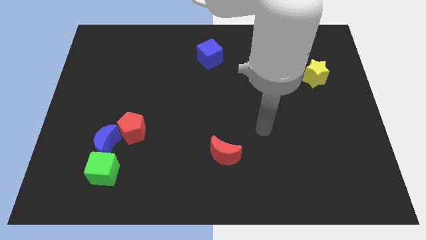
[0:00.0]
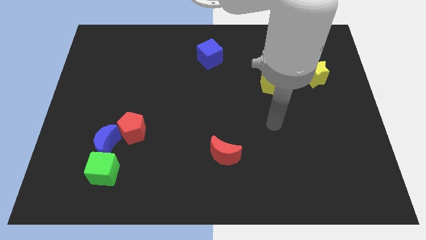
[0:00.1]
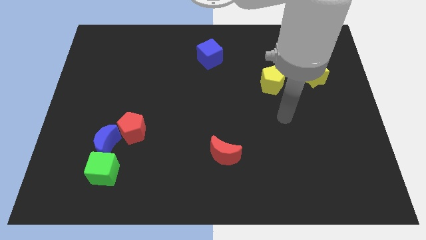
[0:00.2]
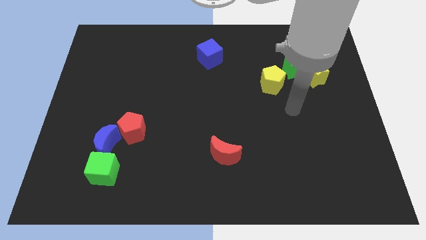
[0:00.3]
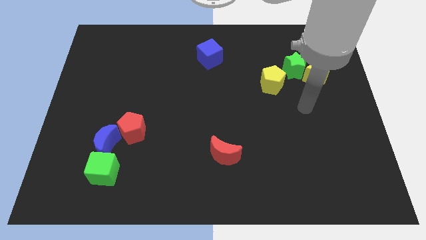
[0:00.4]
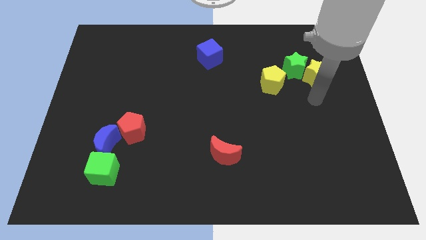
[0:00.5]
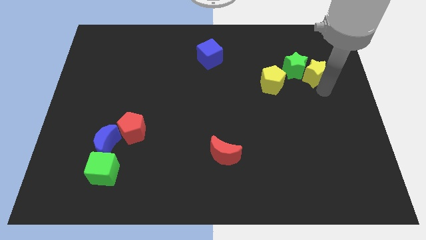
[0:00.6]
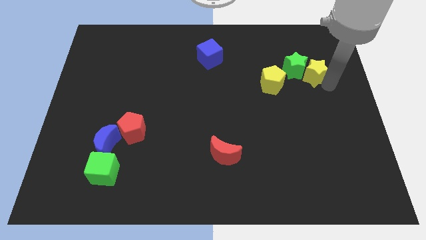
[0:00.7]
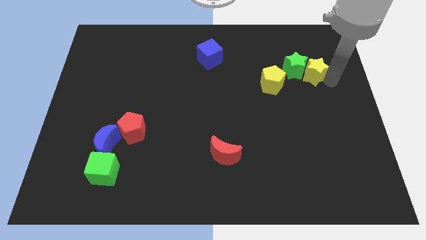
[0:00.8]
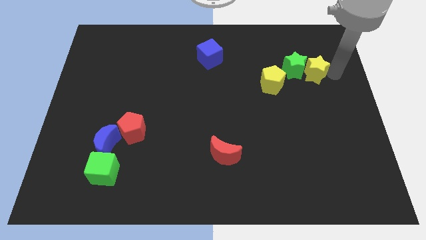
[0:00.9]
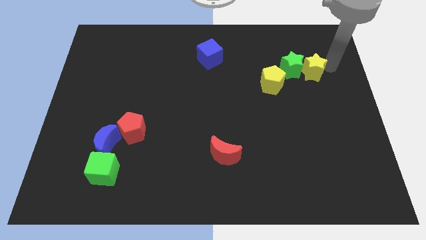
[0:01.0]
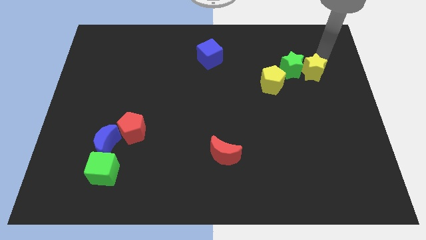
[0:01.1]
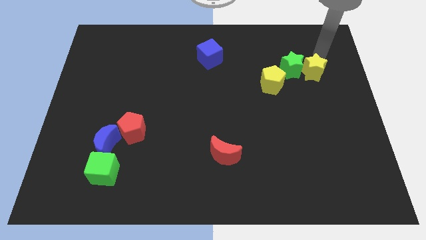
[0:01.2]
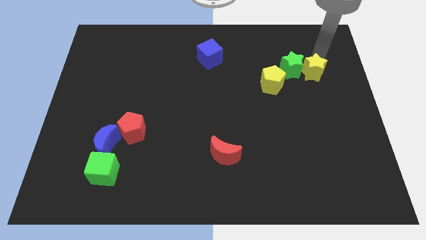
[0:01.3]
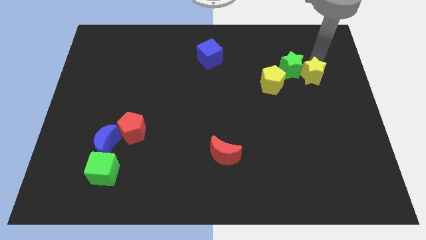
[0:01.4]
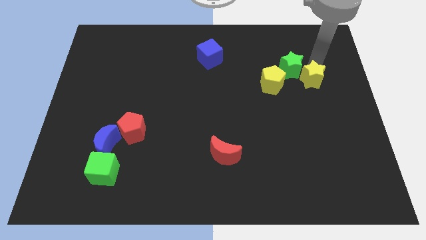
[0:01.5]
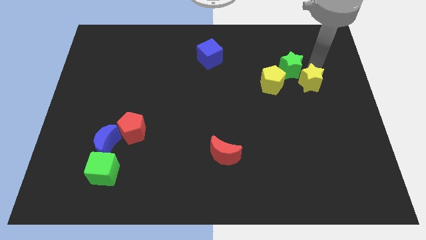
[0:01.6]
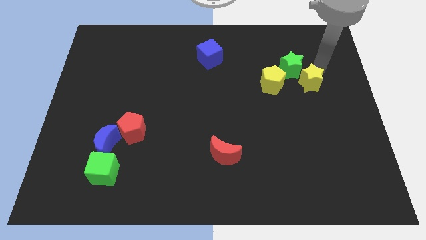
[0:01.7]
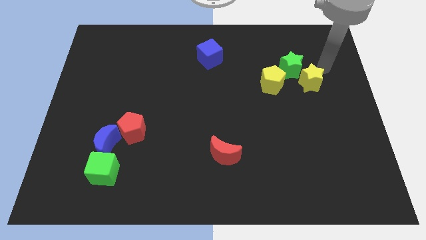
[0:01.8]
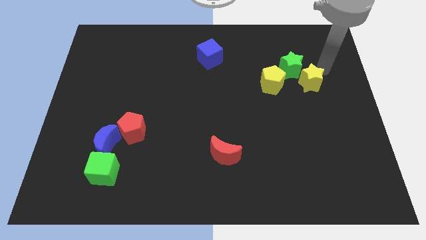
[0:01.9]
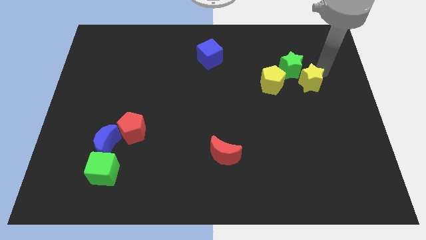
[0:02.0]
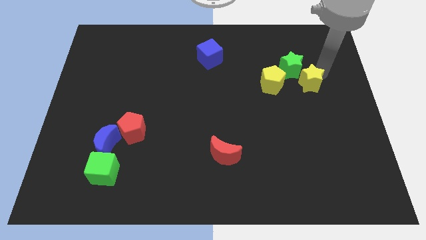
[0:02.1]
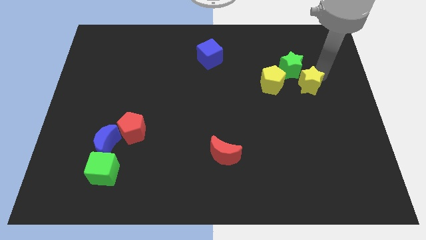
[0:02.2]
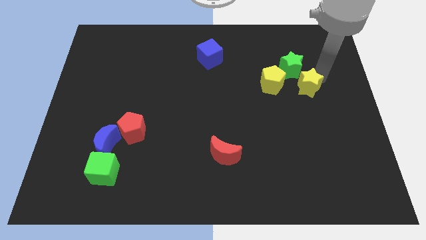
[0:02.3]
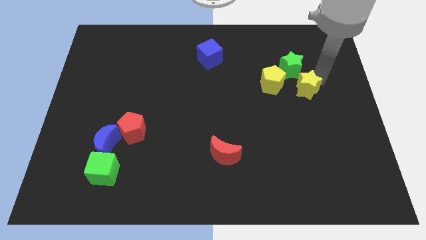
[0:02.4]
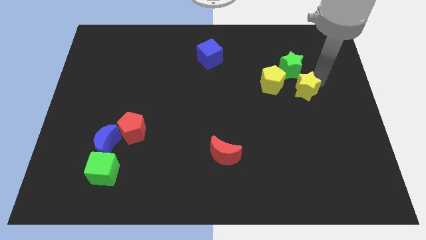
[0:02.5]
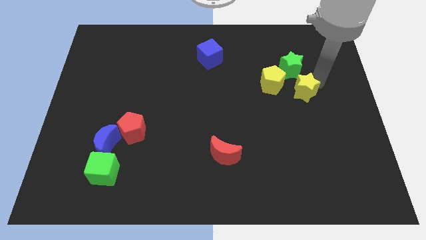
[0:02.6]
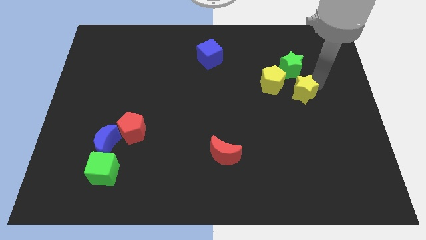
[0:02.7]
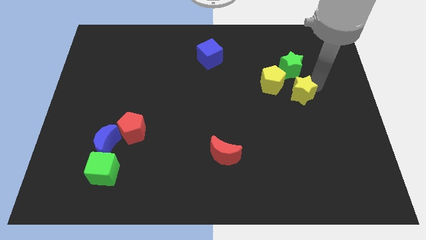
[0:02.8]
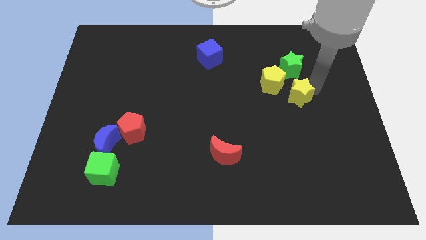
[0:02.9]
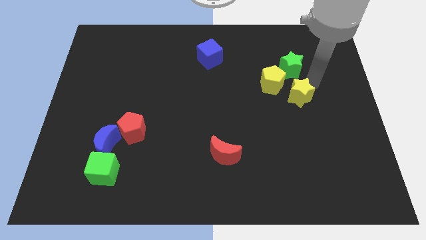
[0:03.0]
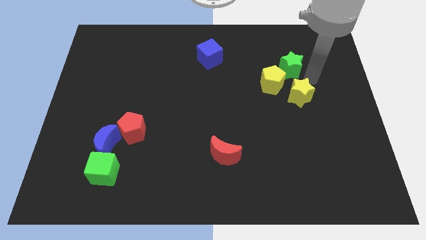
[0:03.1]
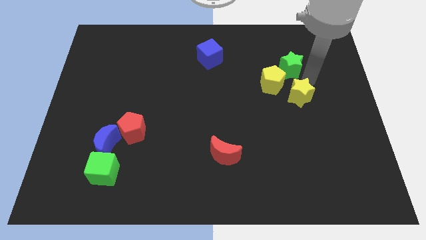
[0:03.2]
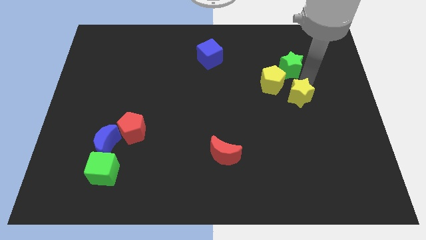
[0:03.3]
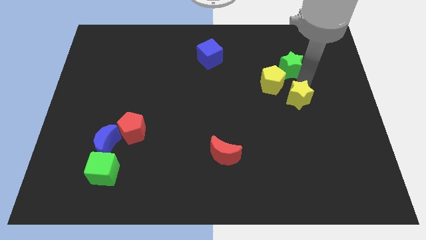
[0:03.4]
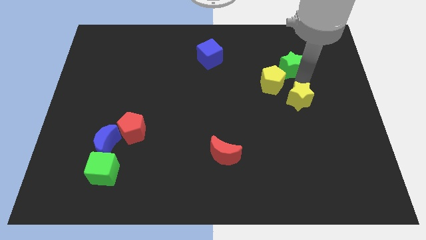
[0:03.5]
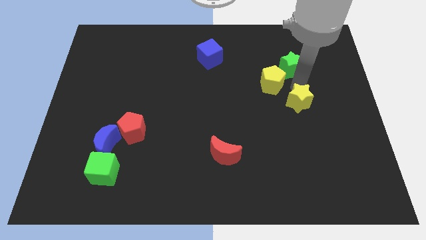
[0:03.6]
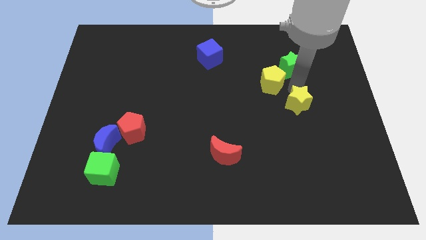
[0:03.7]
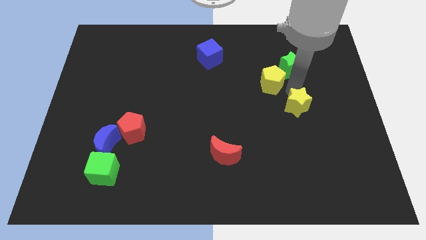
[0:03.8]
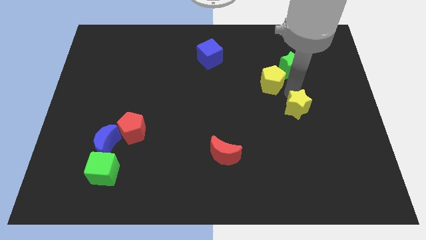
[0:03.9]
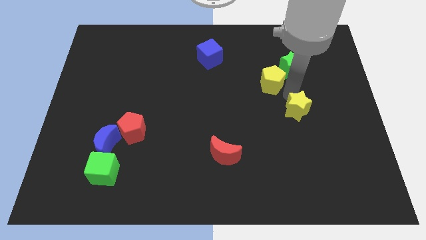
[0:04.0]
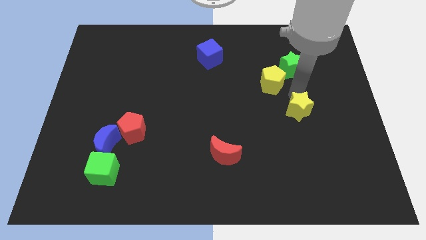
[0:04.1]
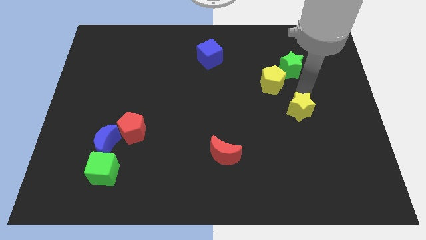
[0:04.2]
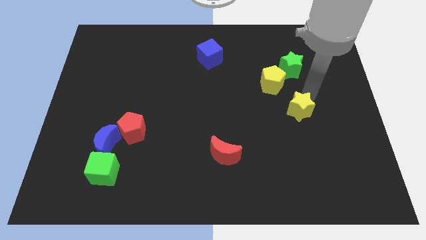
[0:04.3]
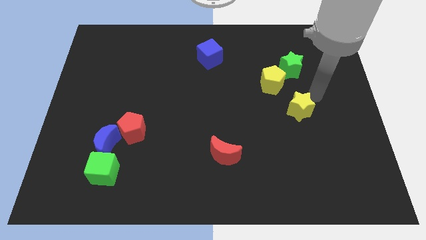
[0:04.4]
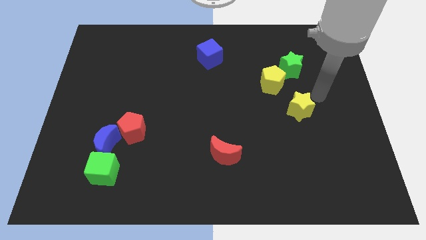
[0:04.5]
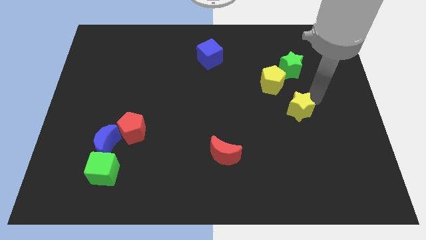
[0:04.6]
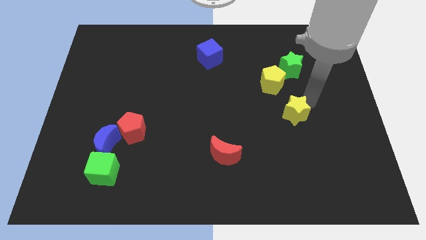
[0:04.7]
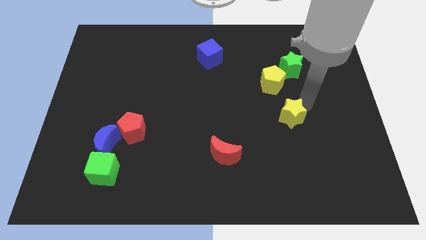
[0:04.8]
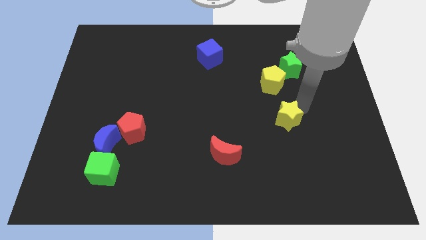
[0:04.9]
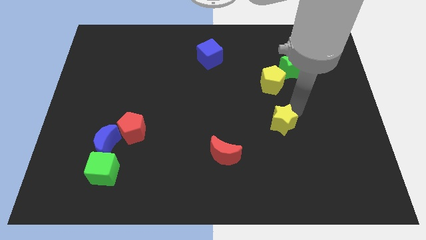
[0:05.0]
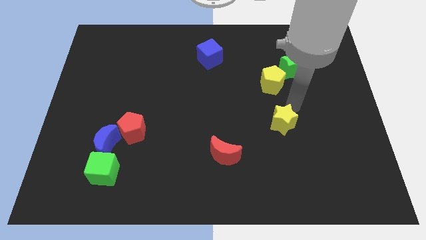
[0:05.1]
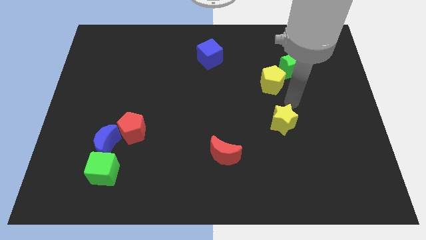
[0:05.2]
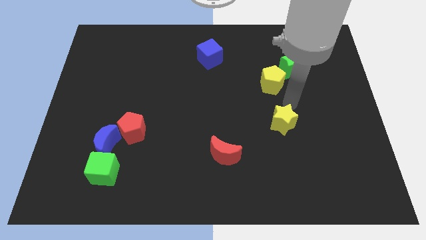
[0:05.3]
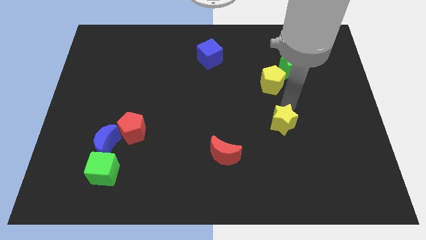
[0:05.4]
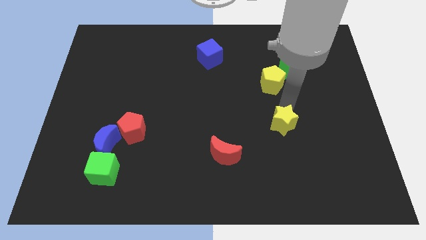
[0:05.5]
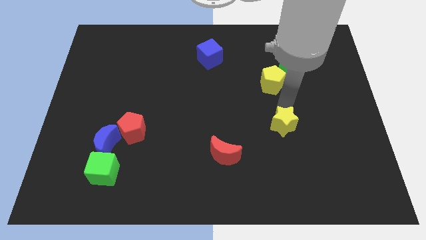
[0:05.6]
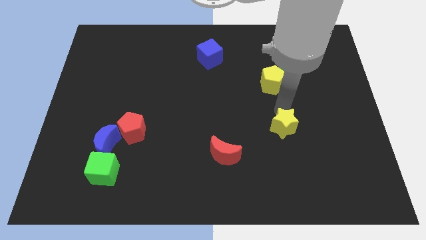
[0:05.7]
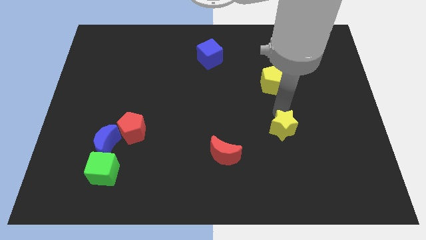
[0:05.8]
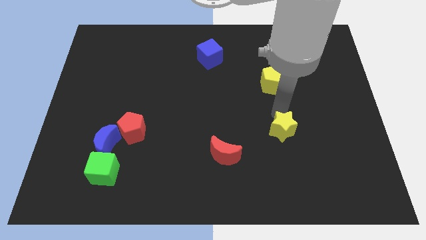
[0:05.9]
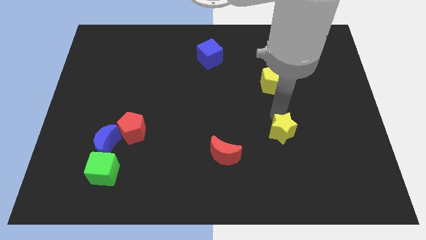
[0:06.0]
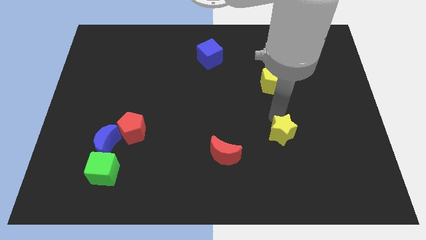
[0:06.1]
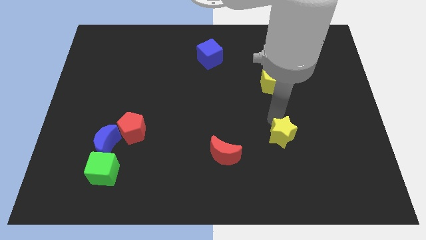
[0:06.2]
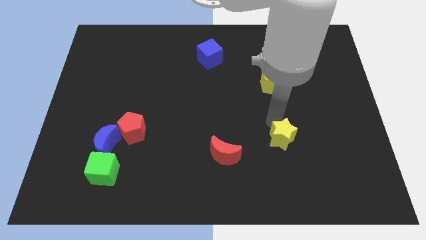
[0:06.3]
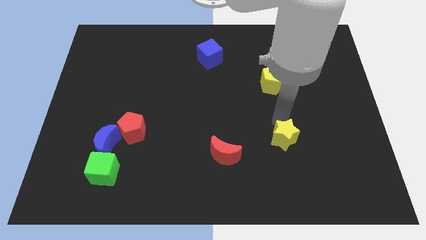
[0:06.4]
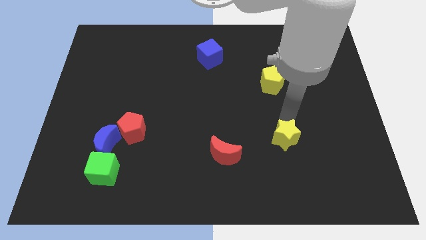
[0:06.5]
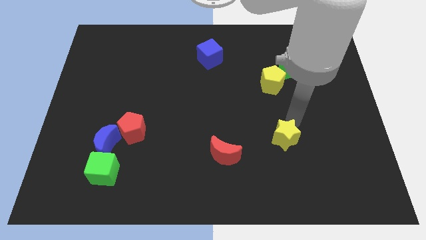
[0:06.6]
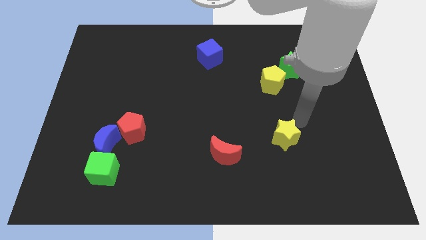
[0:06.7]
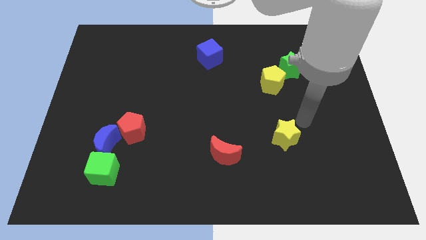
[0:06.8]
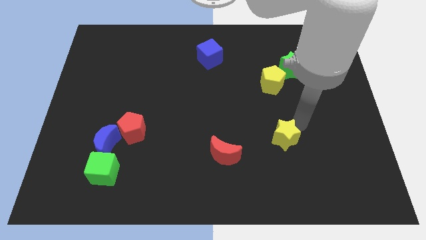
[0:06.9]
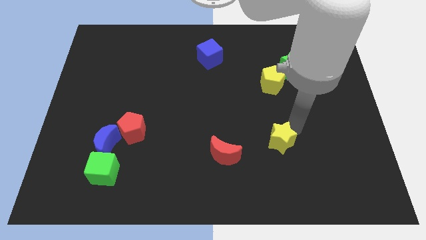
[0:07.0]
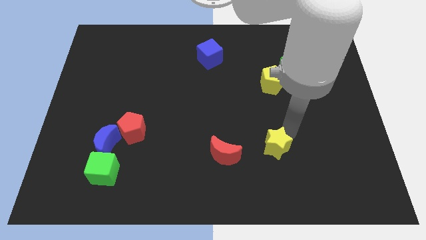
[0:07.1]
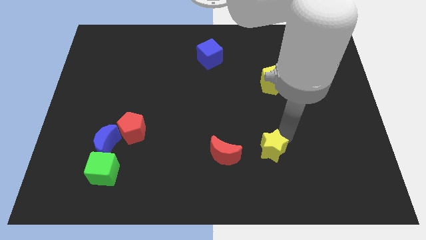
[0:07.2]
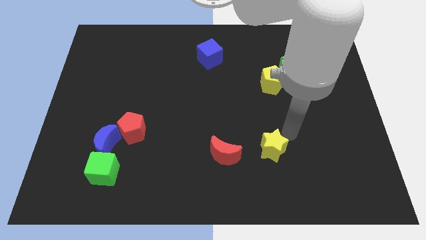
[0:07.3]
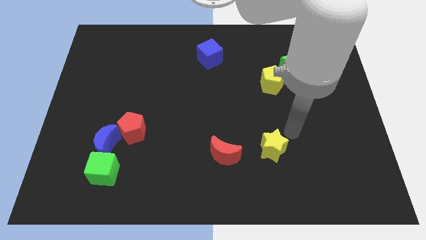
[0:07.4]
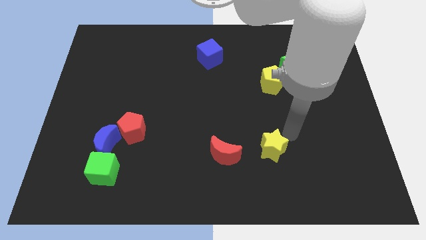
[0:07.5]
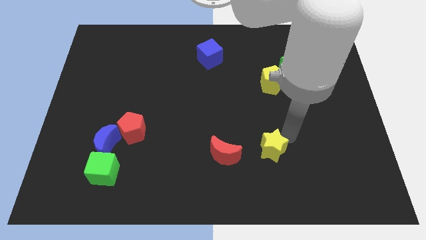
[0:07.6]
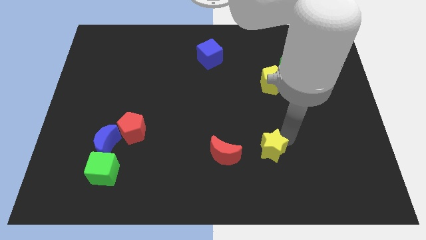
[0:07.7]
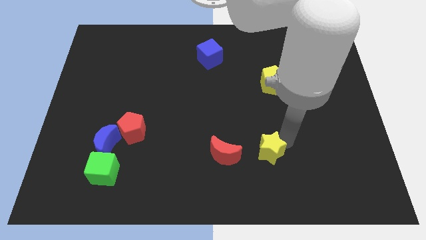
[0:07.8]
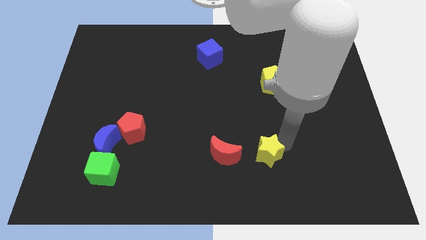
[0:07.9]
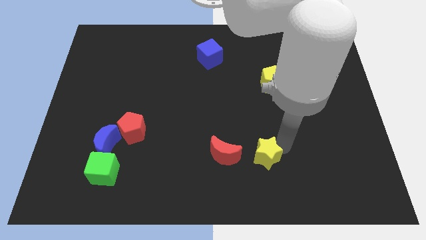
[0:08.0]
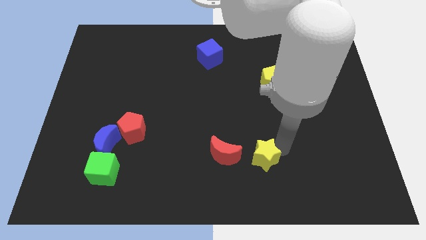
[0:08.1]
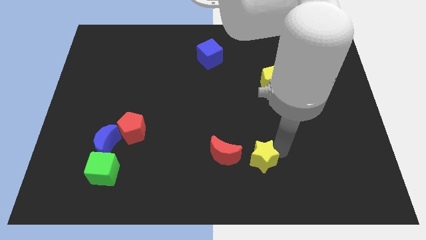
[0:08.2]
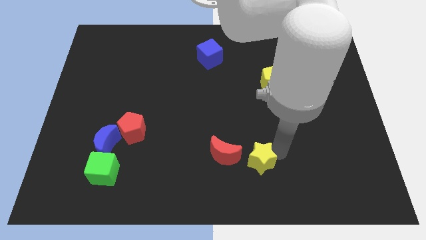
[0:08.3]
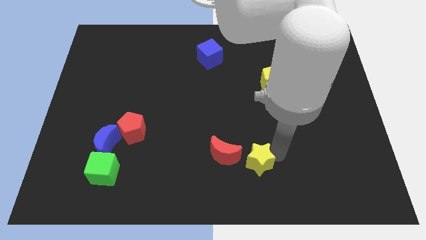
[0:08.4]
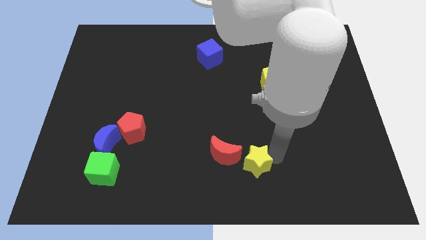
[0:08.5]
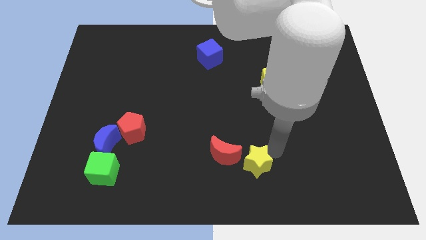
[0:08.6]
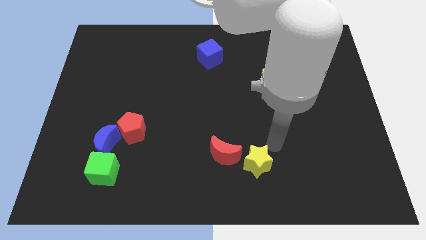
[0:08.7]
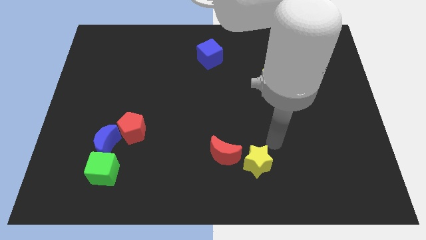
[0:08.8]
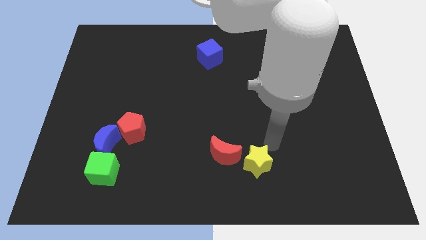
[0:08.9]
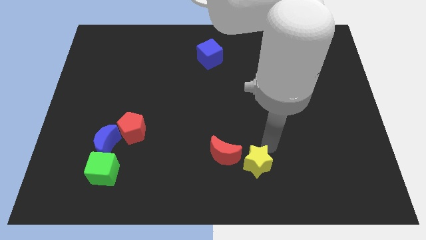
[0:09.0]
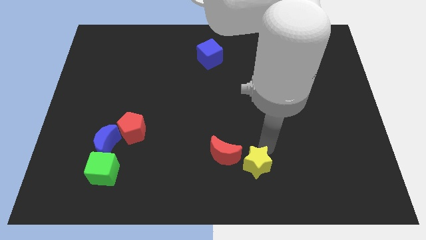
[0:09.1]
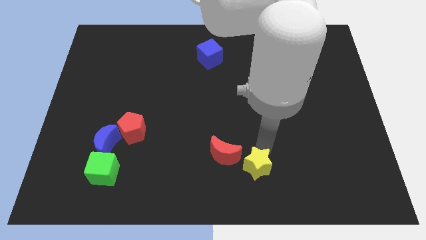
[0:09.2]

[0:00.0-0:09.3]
put the yellow star to the bottom side
